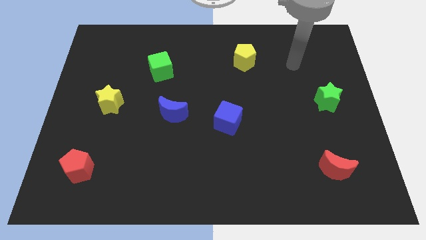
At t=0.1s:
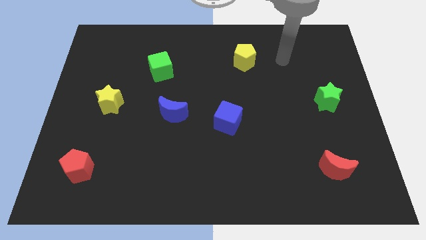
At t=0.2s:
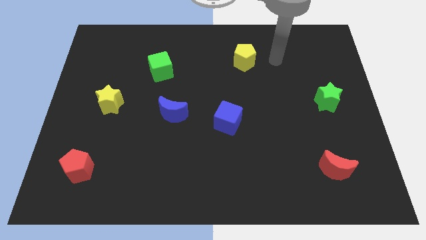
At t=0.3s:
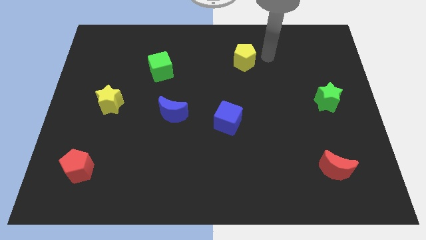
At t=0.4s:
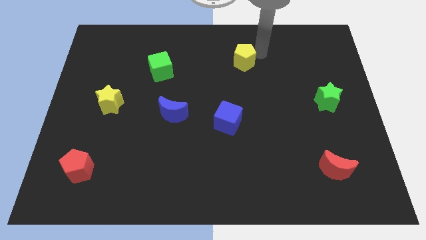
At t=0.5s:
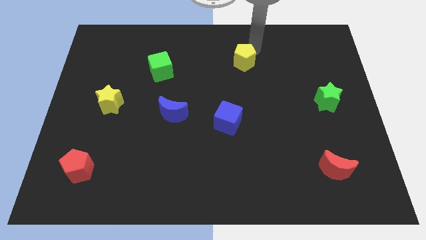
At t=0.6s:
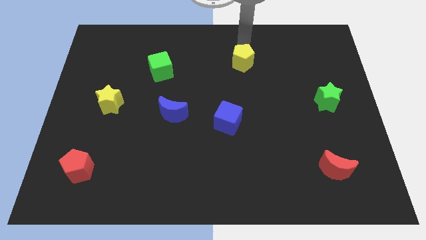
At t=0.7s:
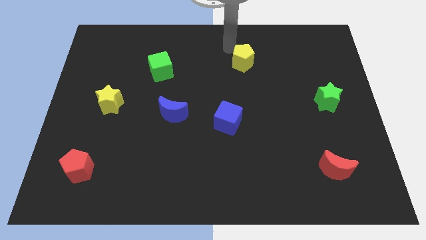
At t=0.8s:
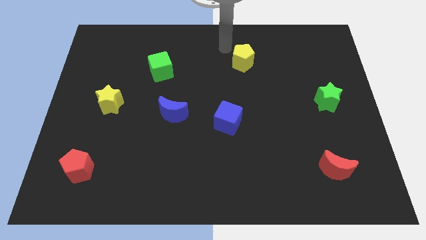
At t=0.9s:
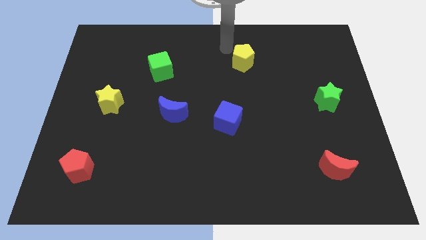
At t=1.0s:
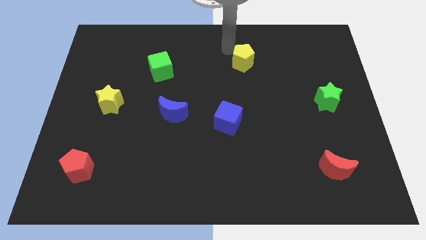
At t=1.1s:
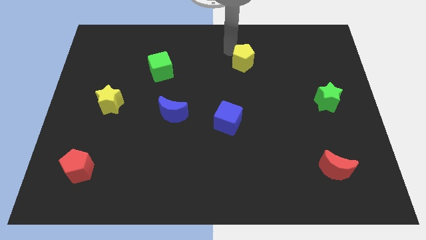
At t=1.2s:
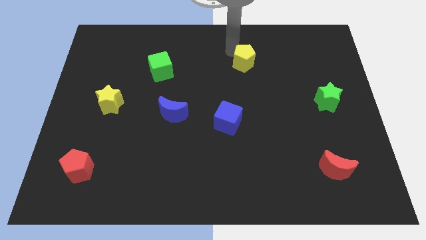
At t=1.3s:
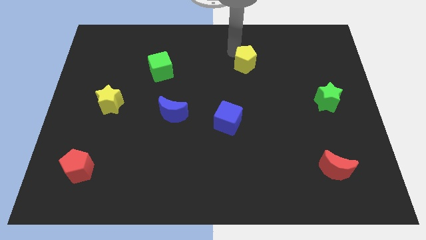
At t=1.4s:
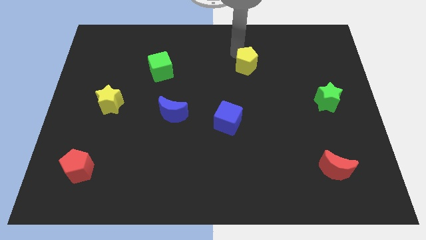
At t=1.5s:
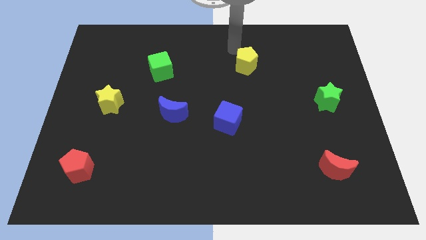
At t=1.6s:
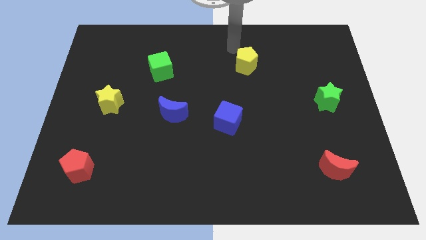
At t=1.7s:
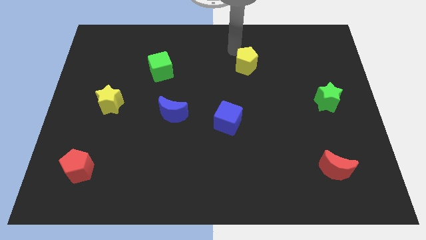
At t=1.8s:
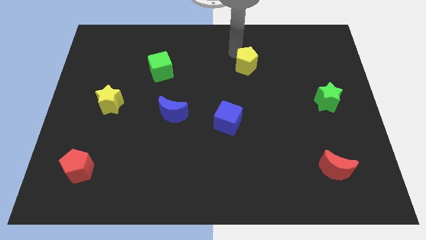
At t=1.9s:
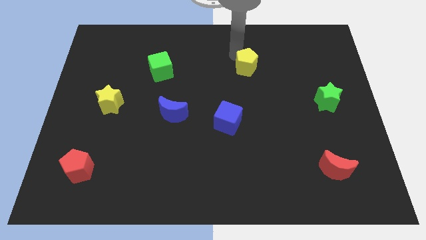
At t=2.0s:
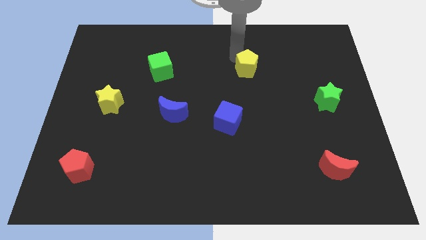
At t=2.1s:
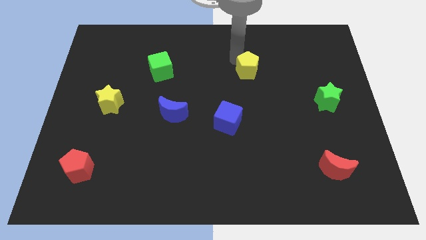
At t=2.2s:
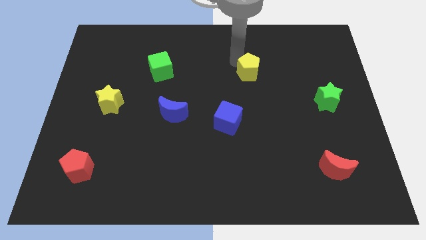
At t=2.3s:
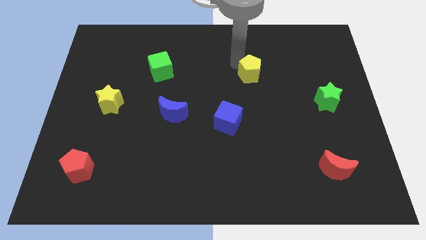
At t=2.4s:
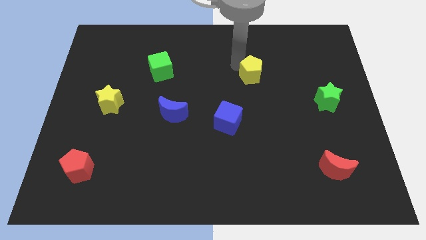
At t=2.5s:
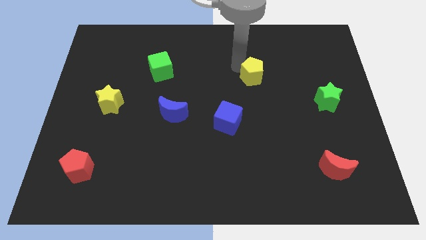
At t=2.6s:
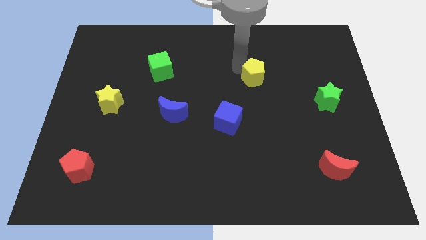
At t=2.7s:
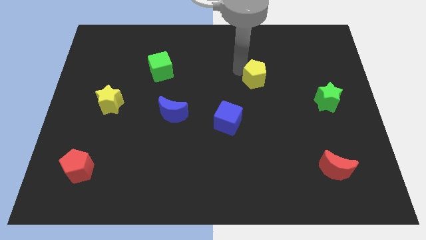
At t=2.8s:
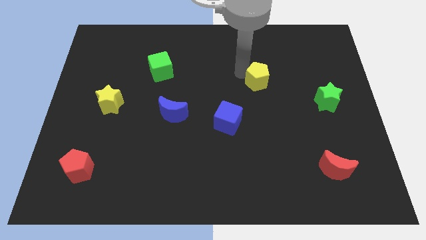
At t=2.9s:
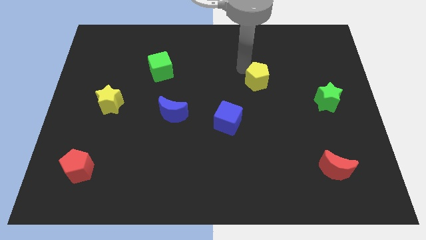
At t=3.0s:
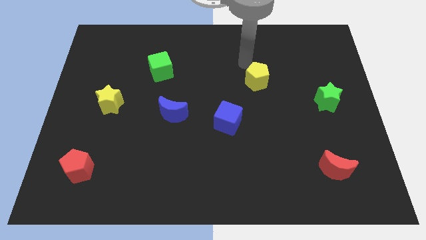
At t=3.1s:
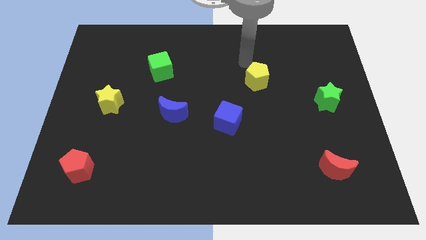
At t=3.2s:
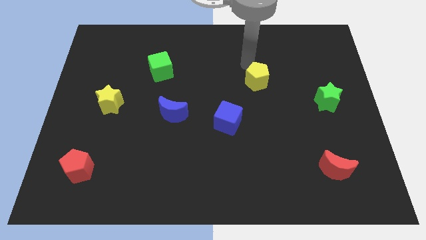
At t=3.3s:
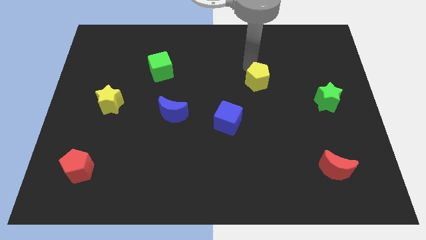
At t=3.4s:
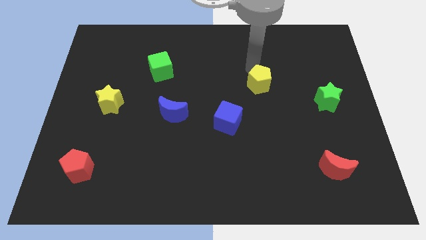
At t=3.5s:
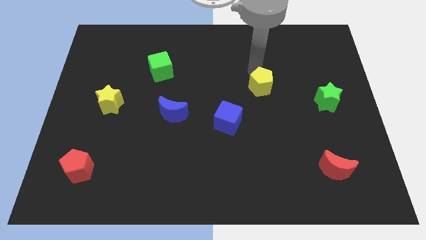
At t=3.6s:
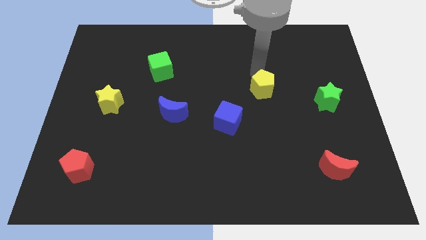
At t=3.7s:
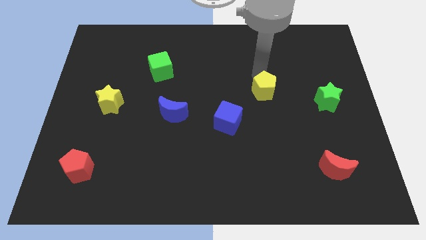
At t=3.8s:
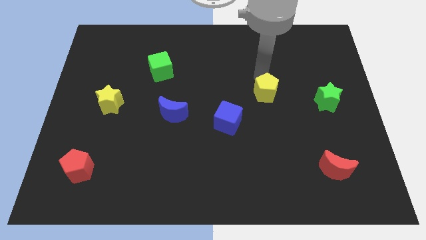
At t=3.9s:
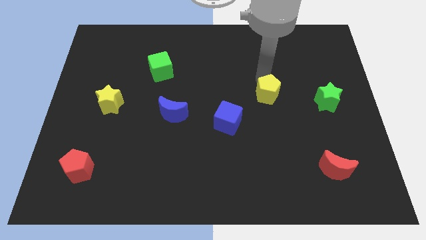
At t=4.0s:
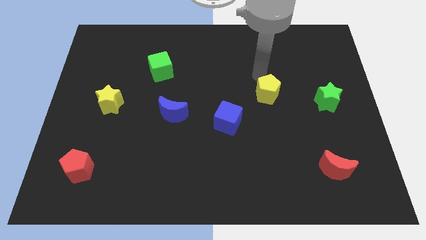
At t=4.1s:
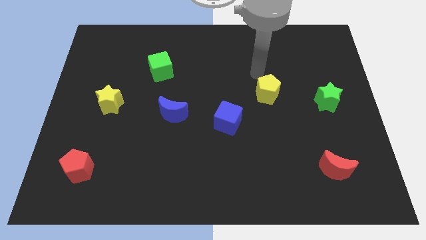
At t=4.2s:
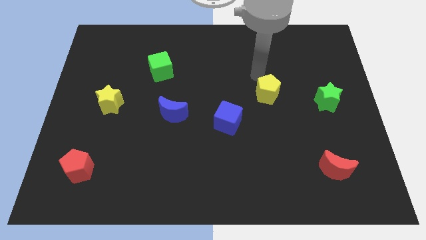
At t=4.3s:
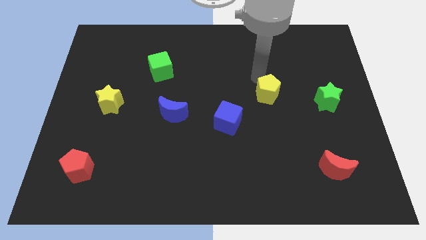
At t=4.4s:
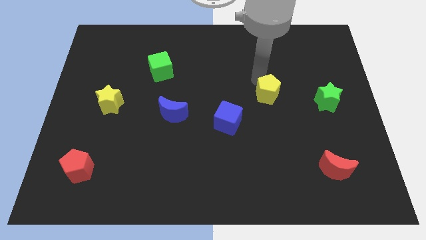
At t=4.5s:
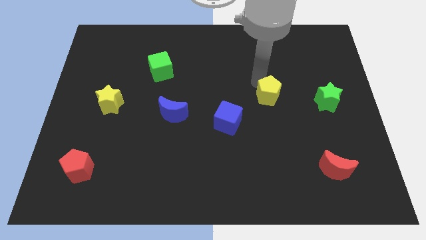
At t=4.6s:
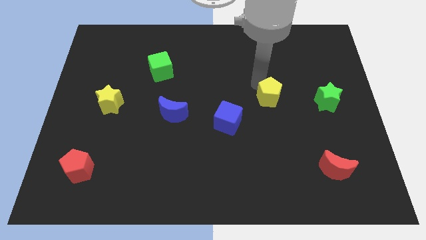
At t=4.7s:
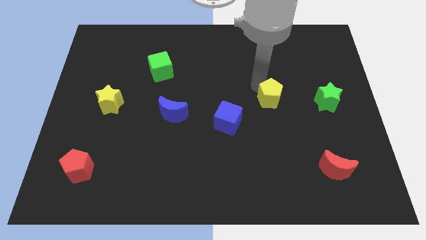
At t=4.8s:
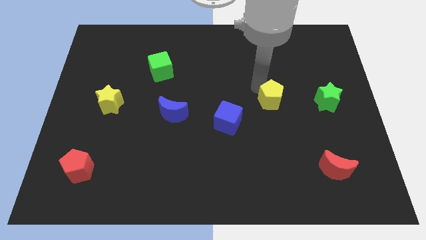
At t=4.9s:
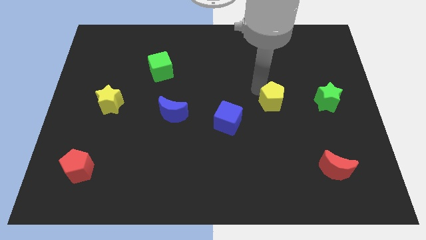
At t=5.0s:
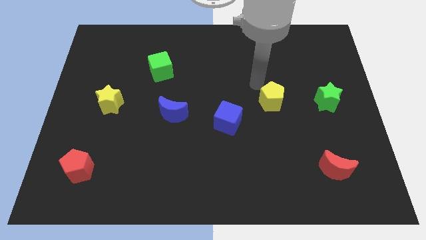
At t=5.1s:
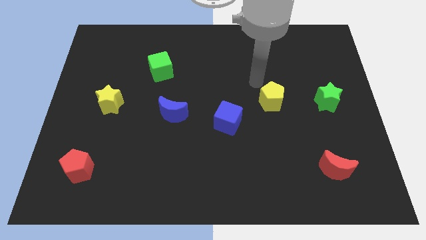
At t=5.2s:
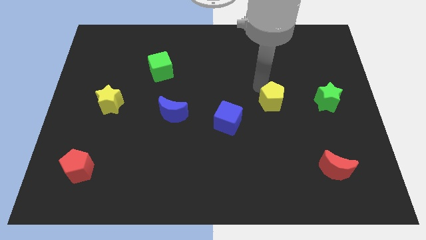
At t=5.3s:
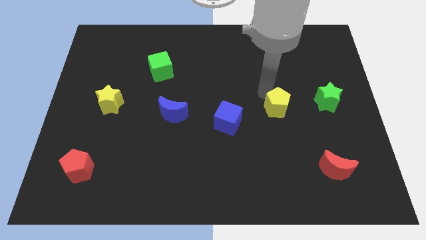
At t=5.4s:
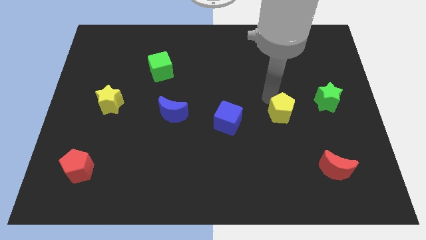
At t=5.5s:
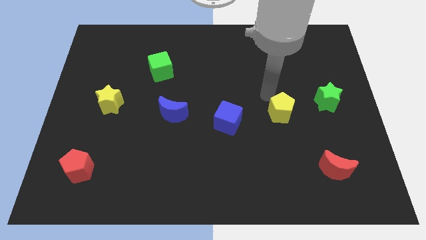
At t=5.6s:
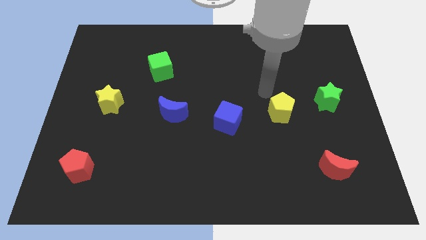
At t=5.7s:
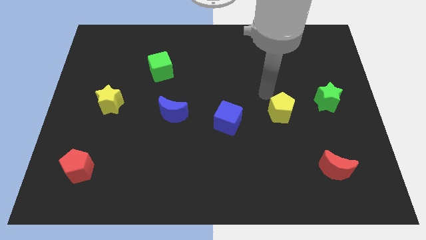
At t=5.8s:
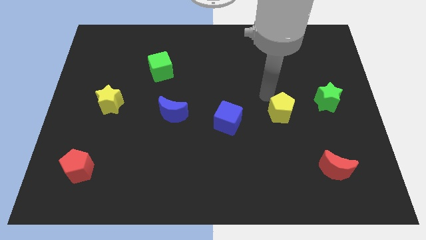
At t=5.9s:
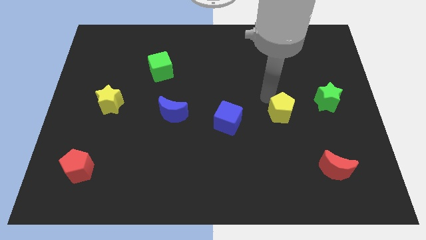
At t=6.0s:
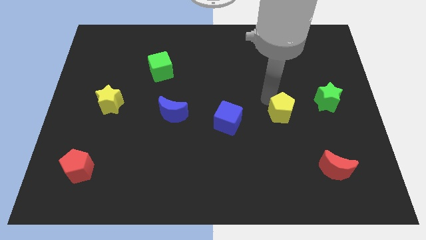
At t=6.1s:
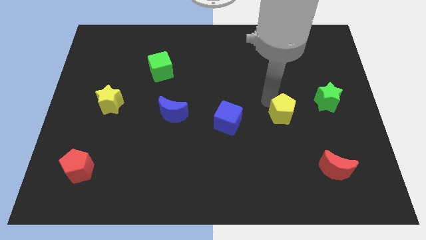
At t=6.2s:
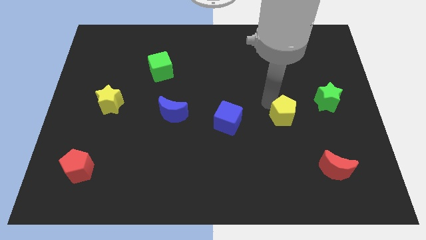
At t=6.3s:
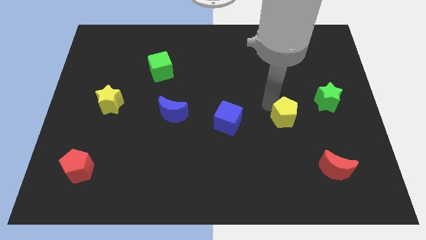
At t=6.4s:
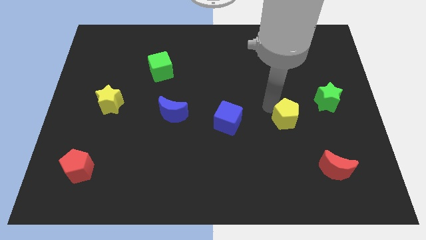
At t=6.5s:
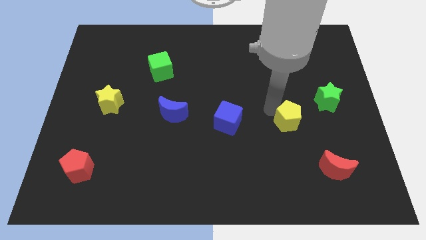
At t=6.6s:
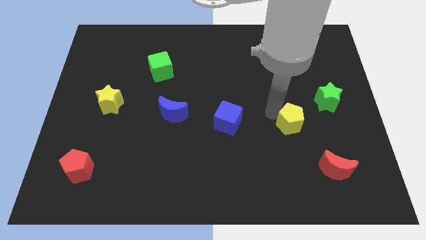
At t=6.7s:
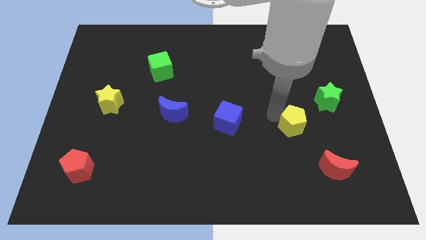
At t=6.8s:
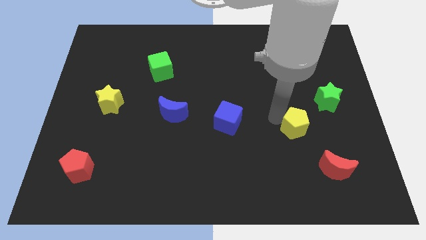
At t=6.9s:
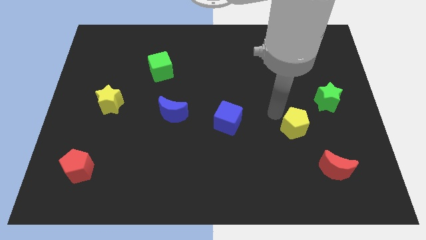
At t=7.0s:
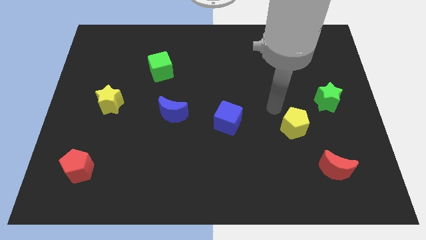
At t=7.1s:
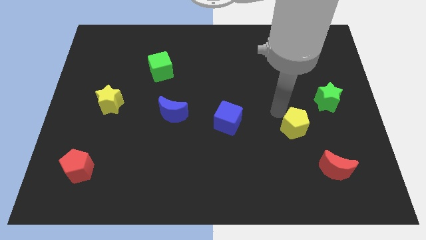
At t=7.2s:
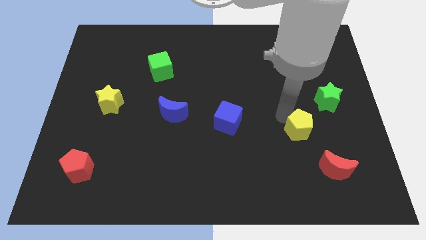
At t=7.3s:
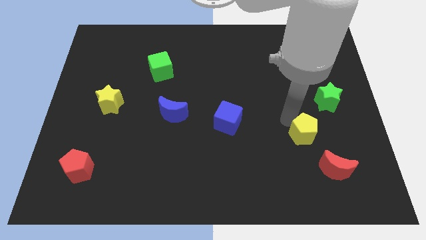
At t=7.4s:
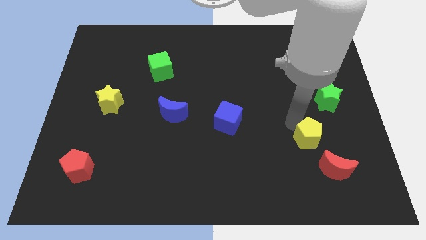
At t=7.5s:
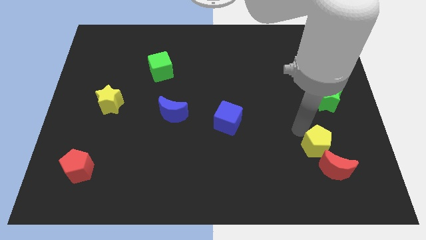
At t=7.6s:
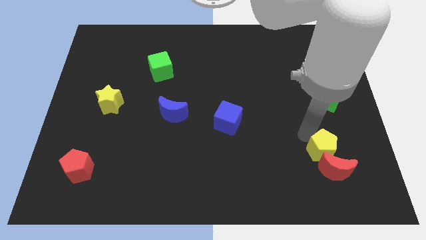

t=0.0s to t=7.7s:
move the yellow pentagon to the red moon
